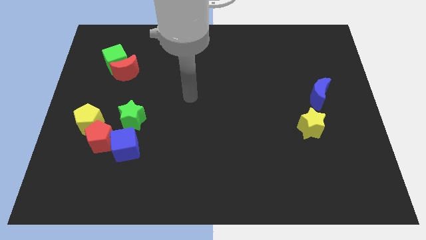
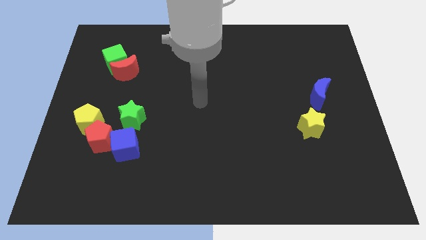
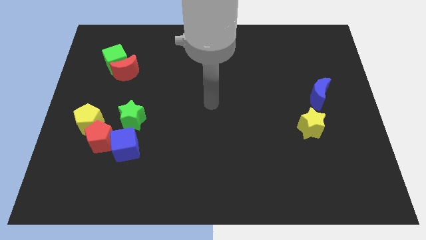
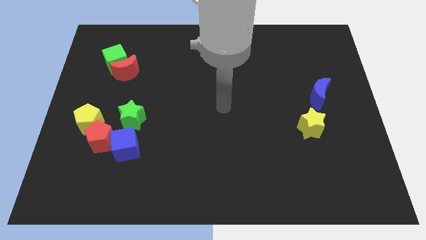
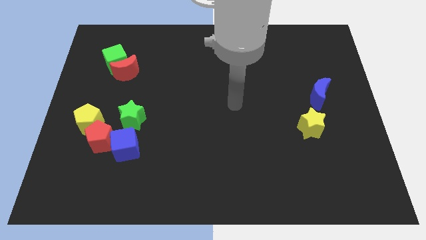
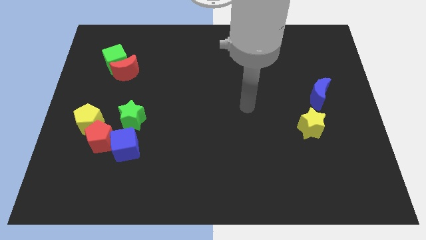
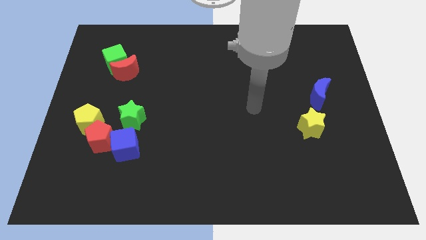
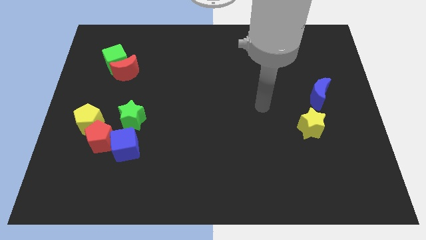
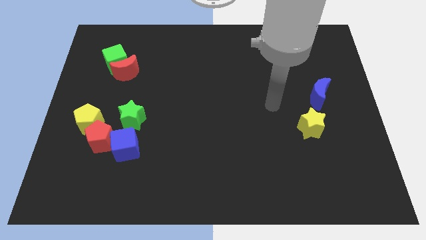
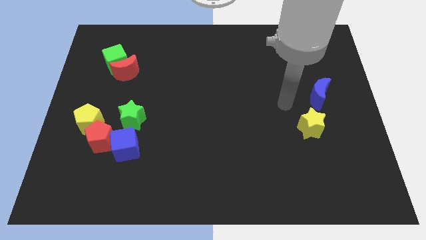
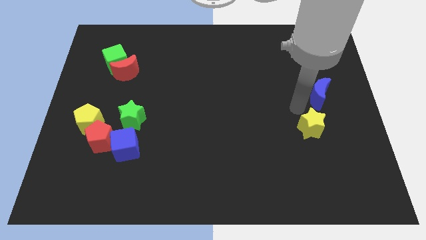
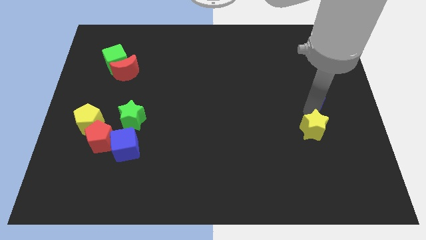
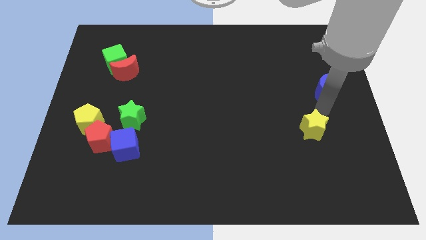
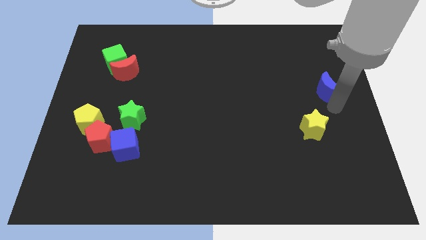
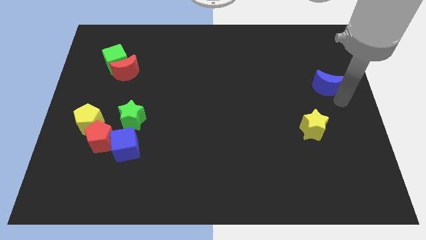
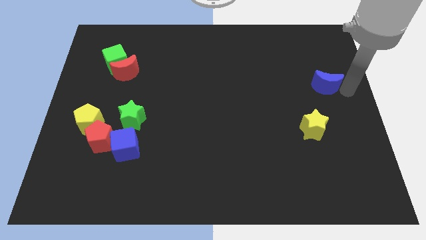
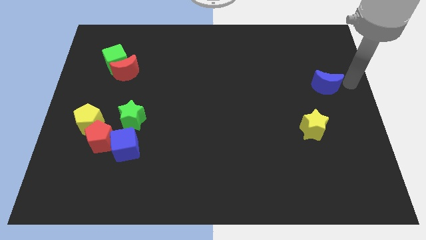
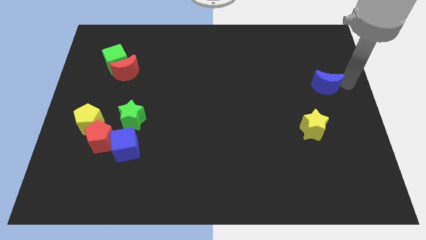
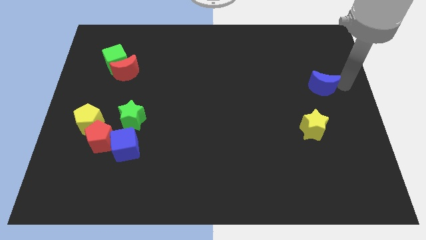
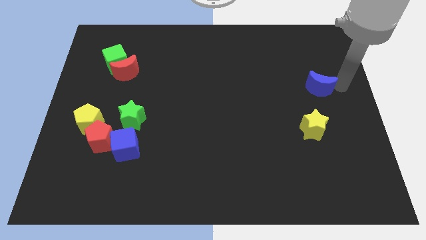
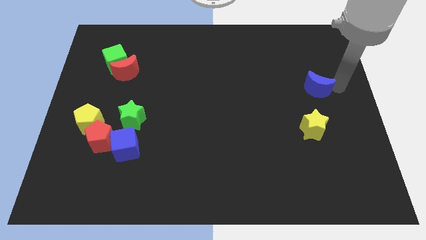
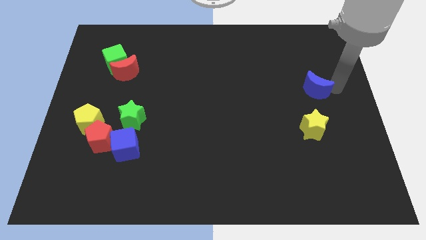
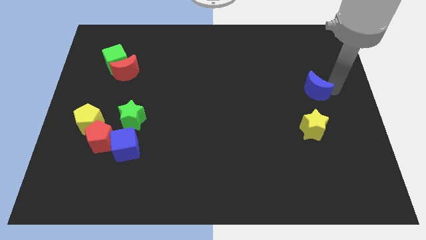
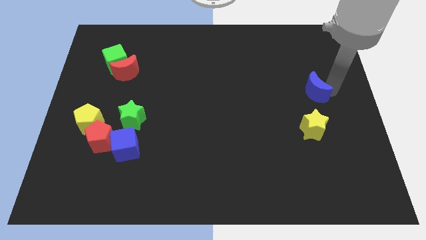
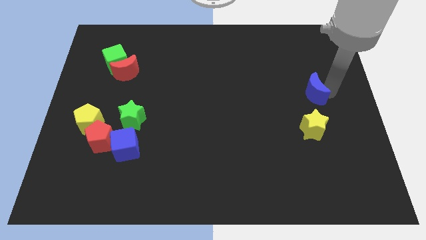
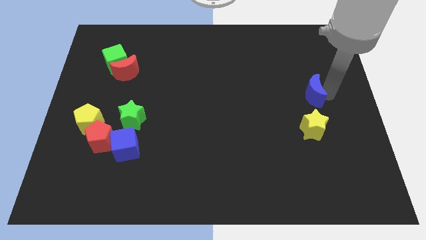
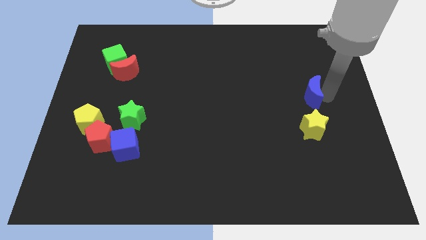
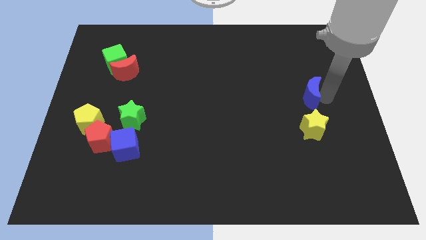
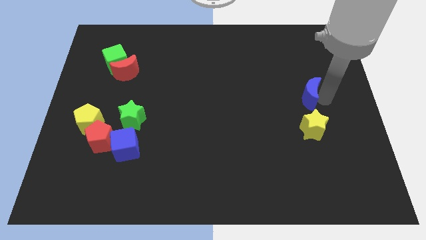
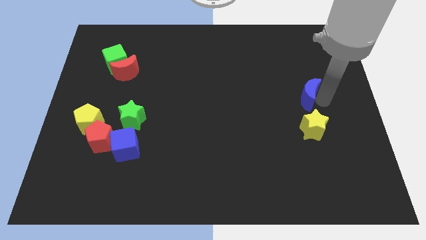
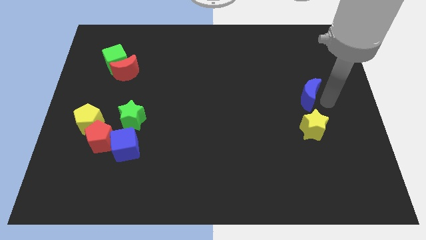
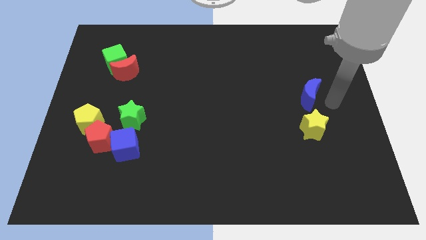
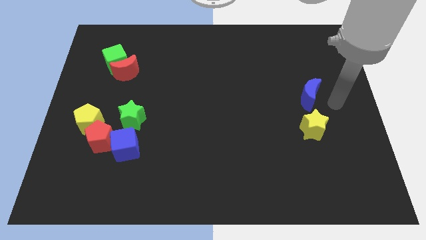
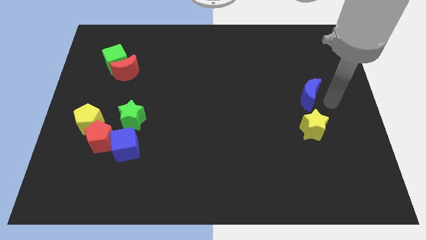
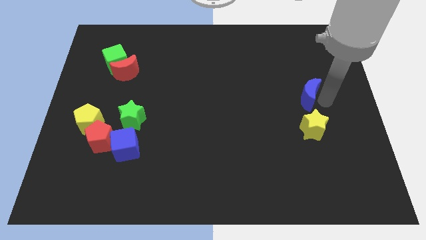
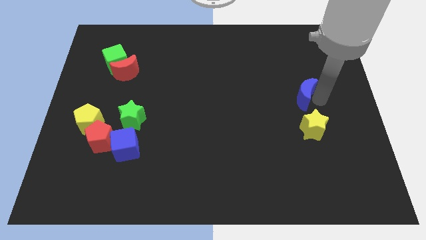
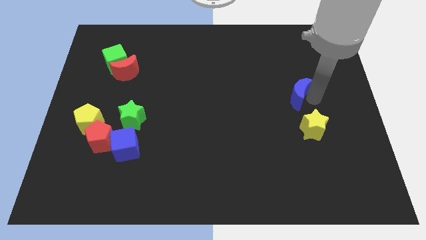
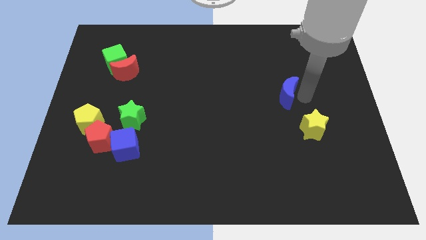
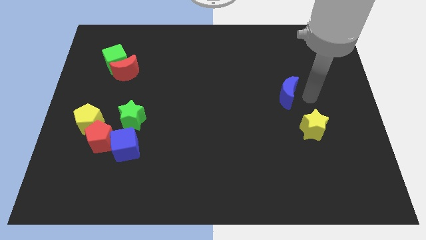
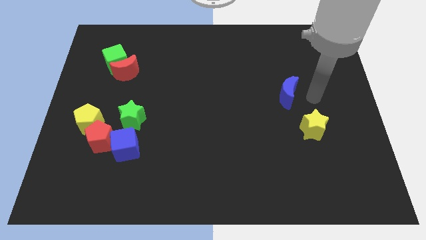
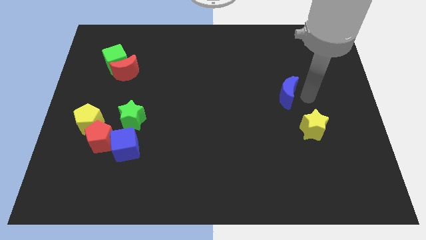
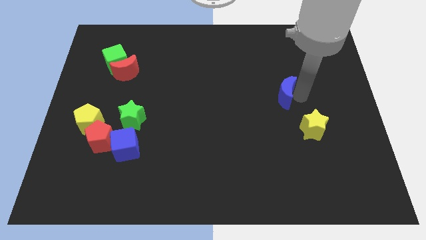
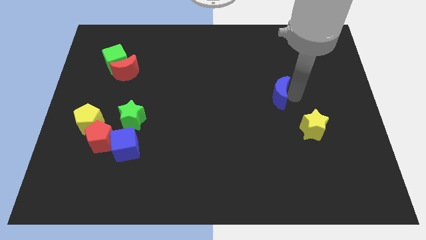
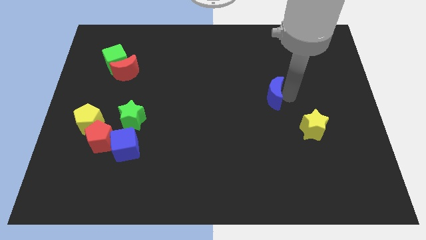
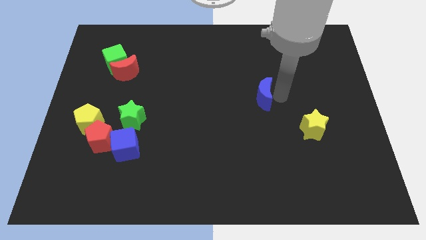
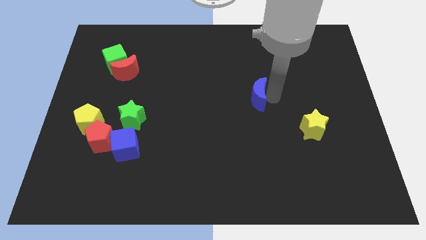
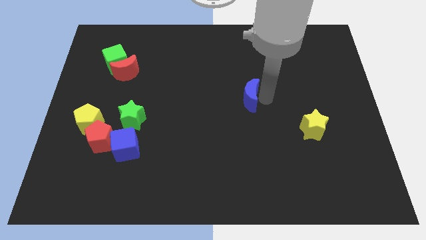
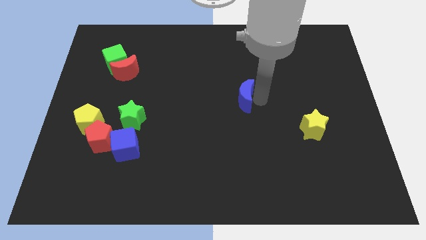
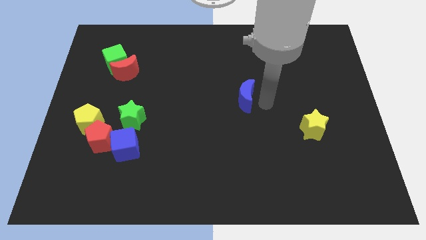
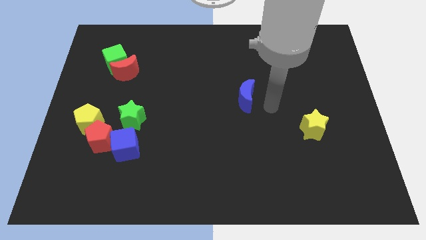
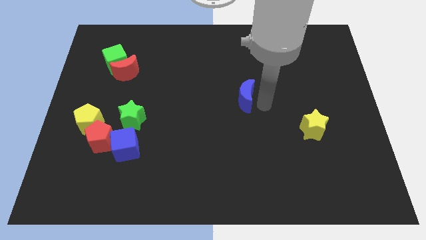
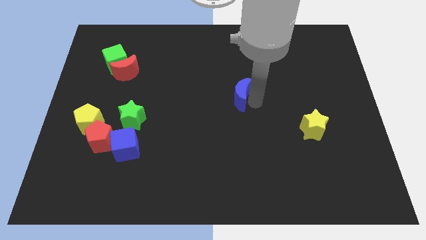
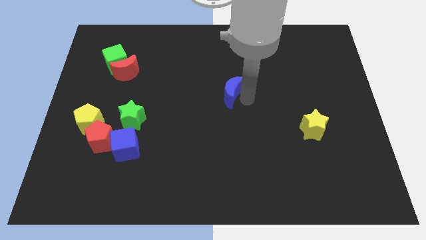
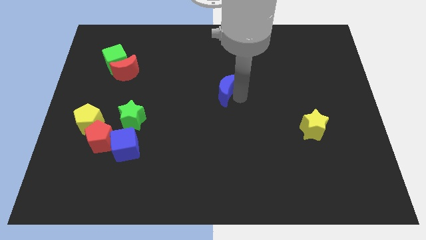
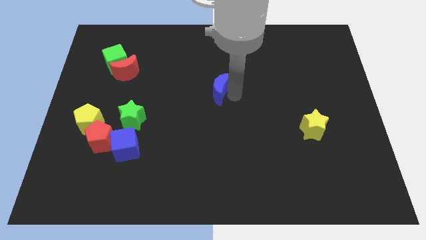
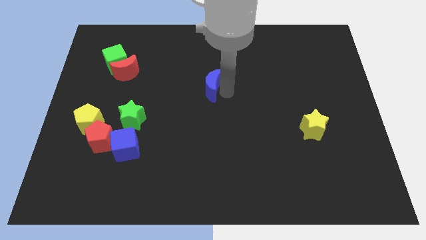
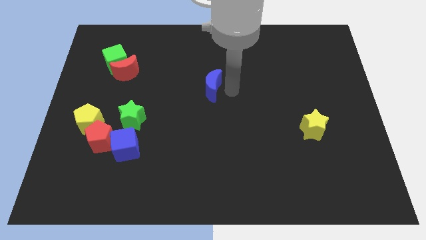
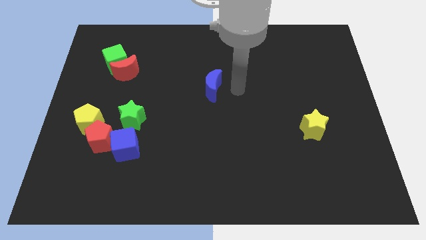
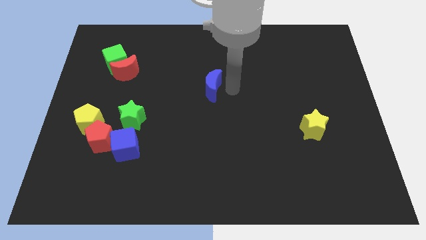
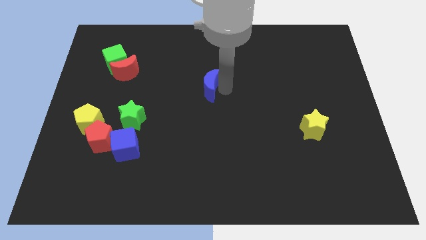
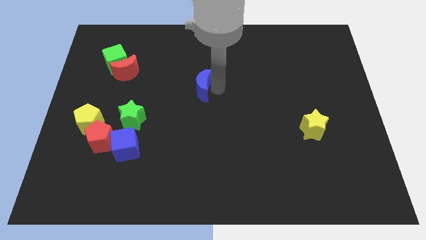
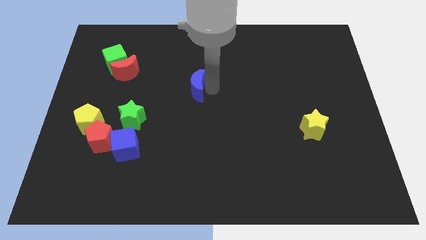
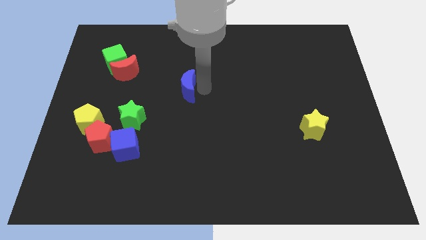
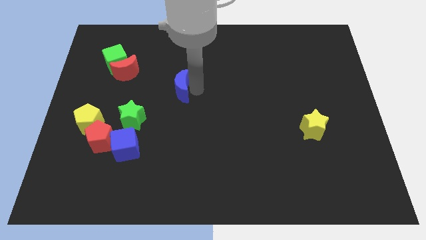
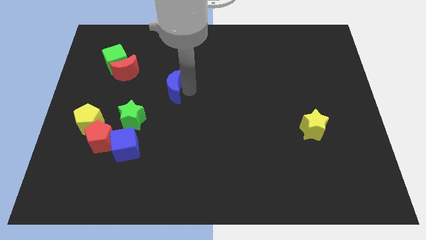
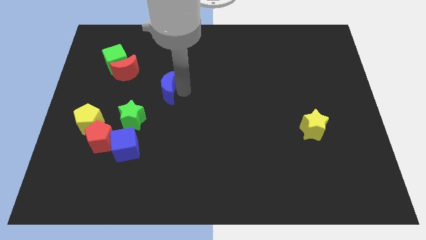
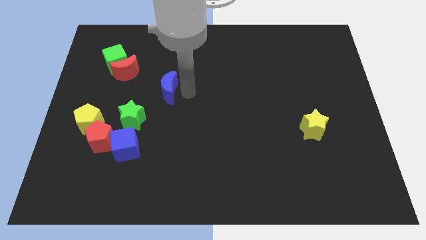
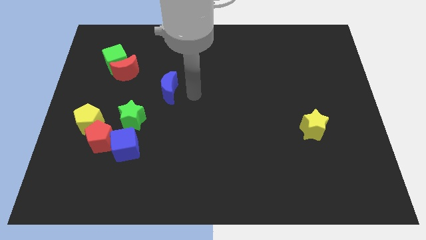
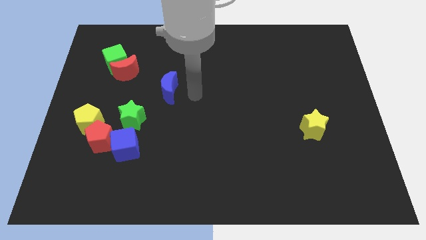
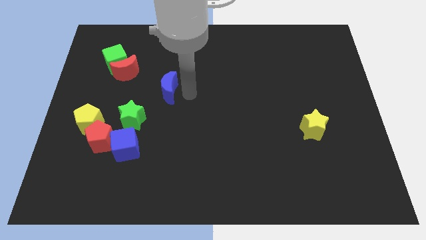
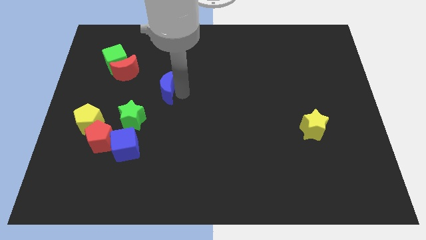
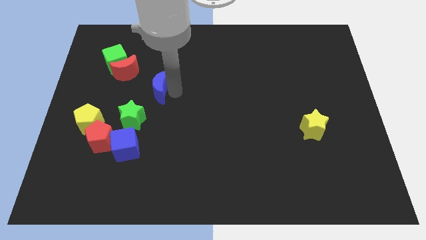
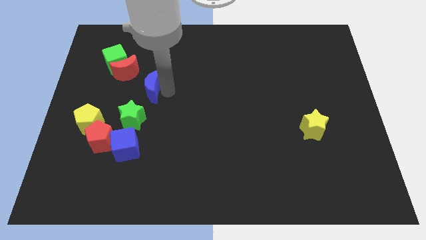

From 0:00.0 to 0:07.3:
move the blue moon to the top side of the green star

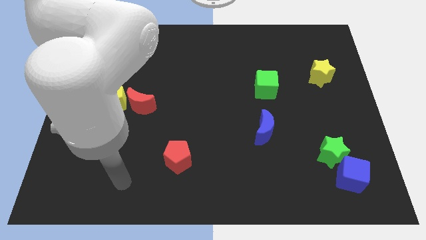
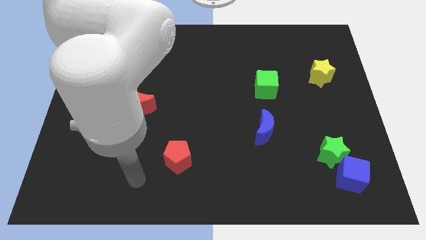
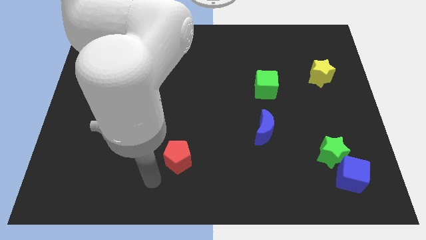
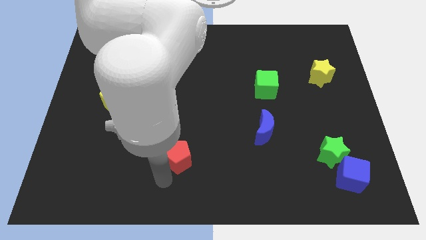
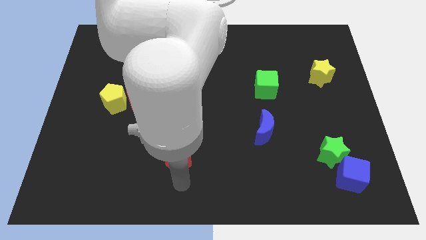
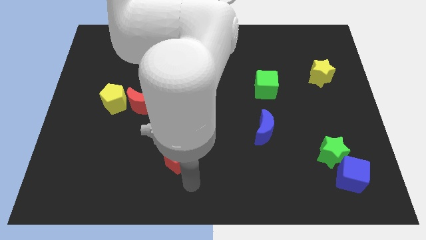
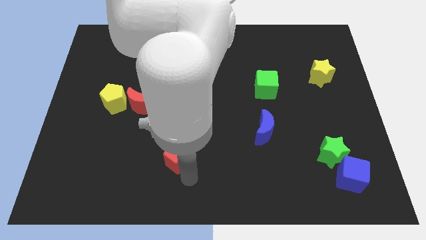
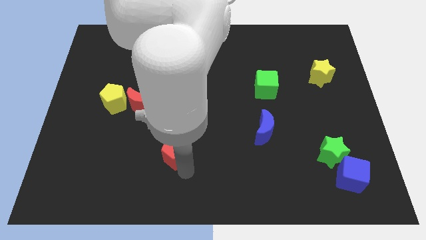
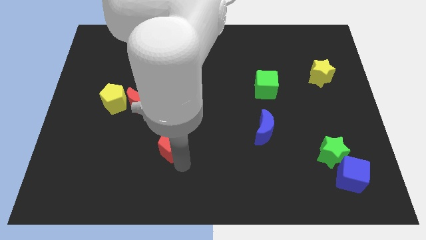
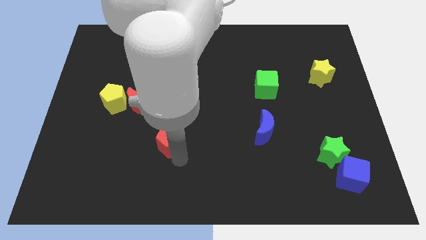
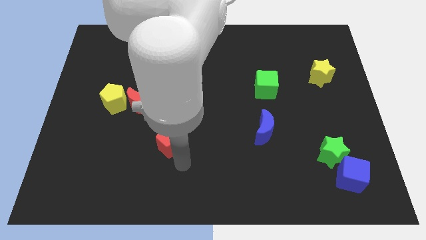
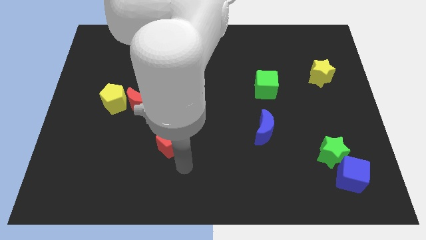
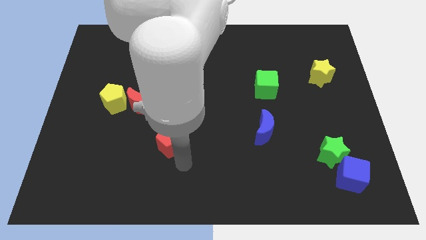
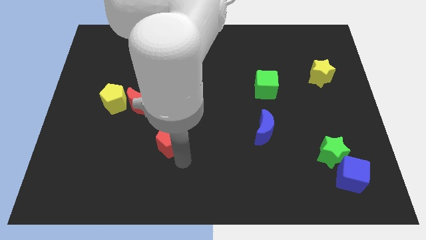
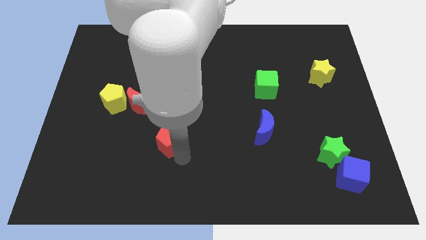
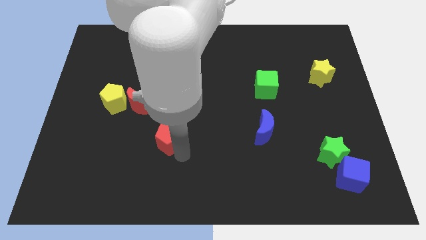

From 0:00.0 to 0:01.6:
slide the red pentagon to the bottom right side of the red moon
